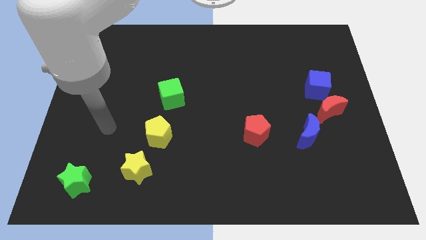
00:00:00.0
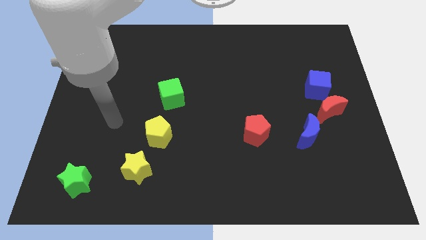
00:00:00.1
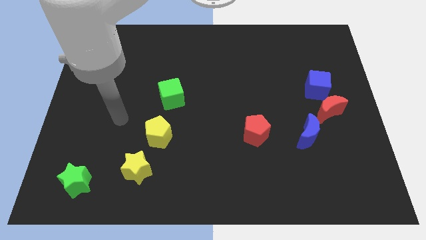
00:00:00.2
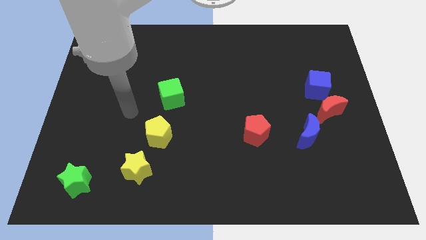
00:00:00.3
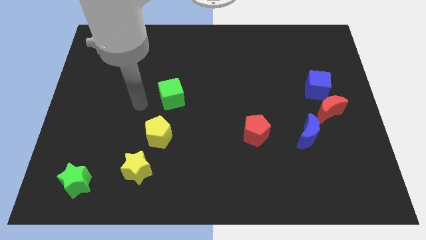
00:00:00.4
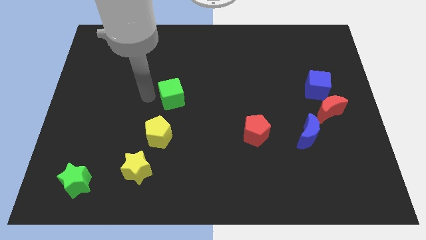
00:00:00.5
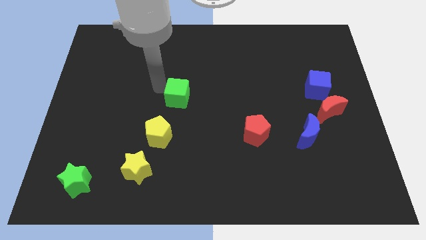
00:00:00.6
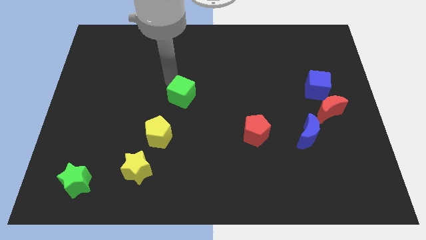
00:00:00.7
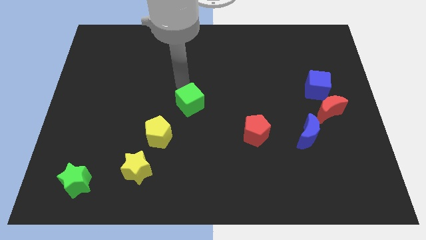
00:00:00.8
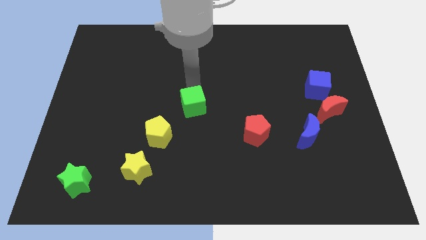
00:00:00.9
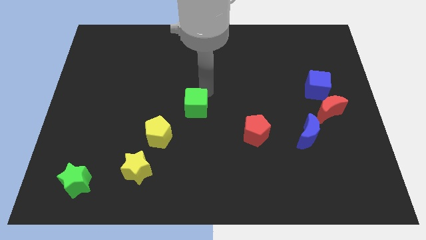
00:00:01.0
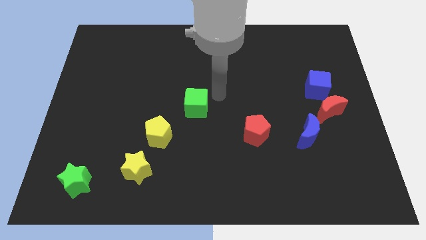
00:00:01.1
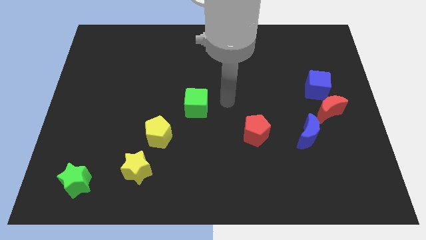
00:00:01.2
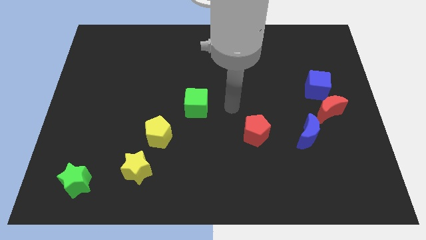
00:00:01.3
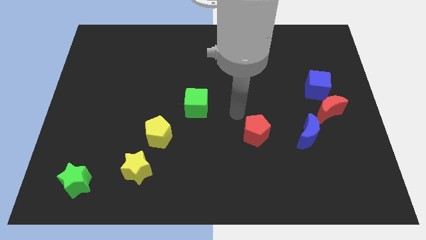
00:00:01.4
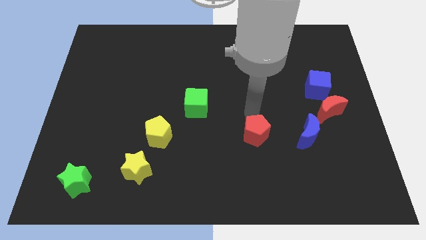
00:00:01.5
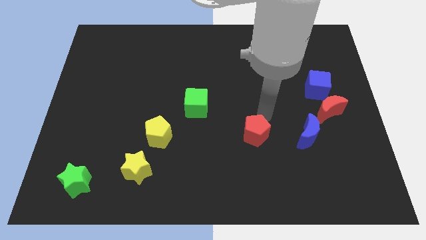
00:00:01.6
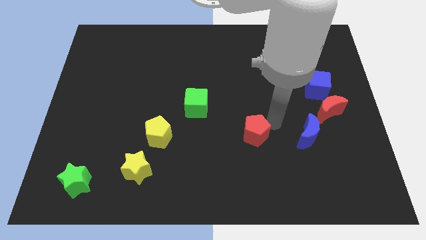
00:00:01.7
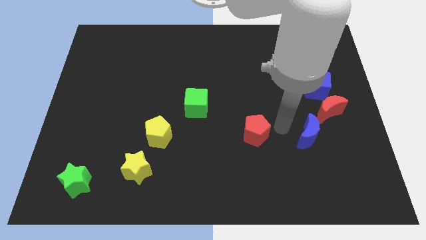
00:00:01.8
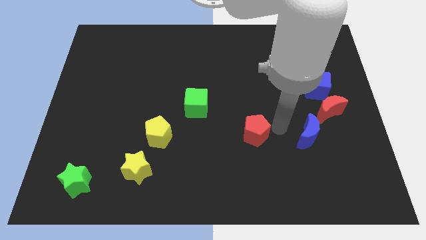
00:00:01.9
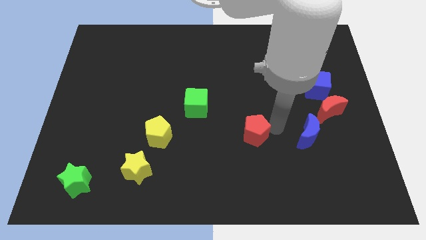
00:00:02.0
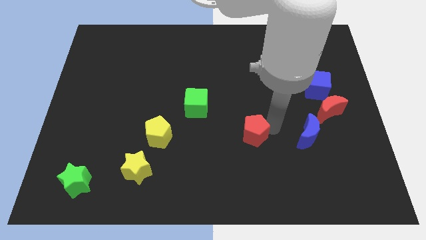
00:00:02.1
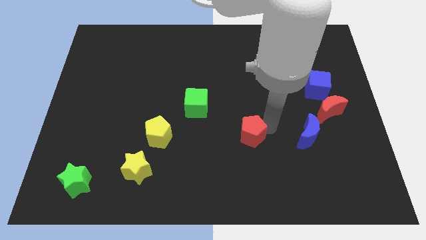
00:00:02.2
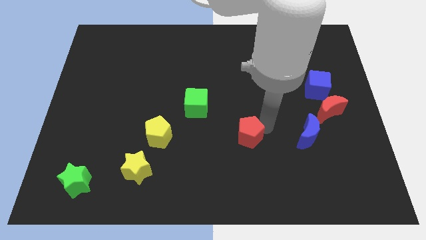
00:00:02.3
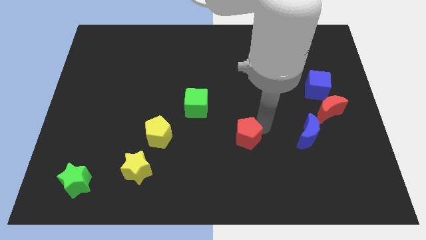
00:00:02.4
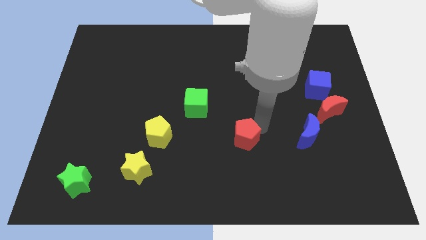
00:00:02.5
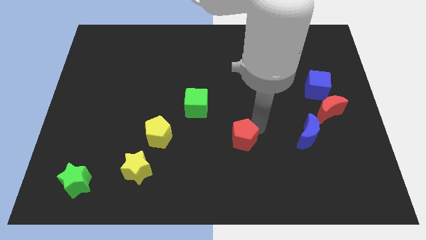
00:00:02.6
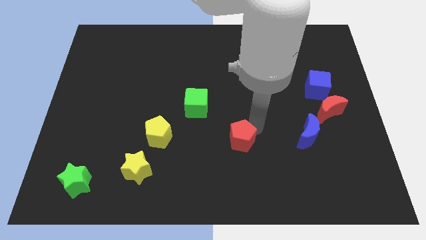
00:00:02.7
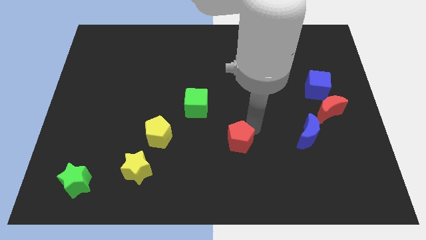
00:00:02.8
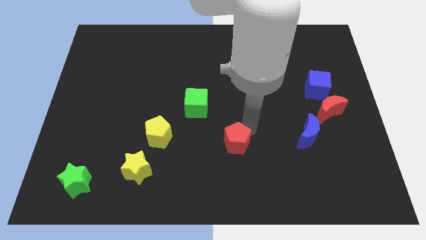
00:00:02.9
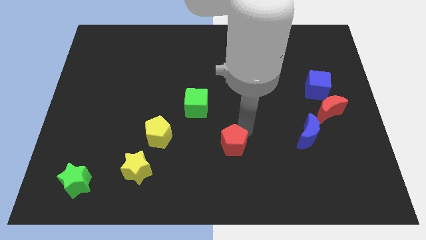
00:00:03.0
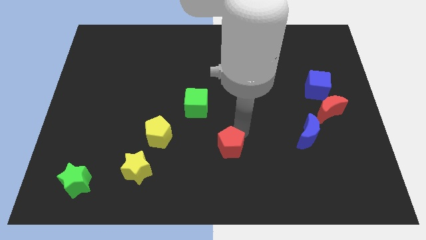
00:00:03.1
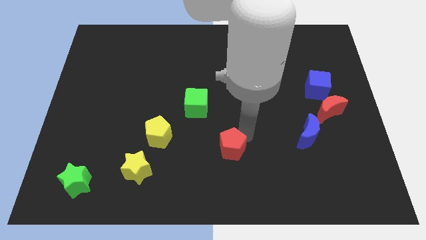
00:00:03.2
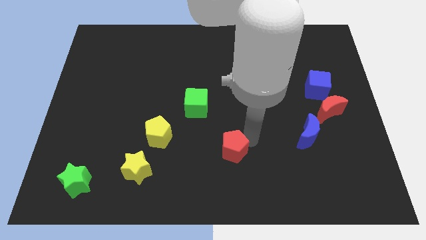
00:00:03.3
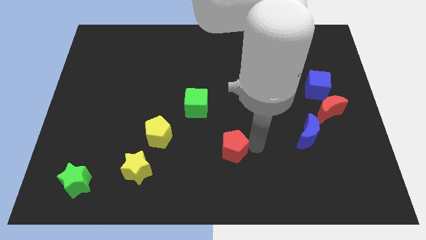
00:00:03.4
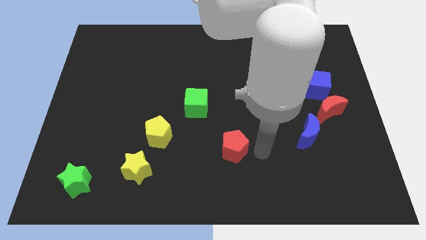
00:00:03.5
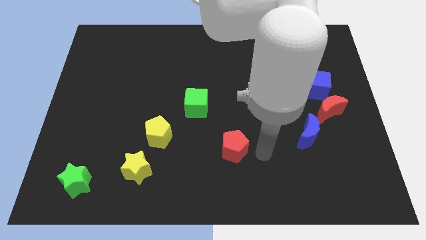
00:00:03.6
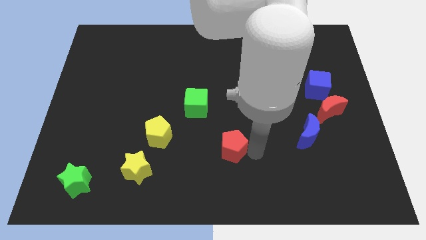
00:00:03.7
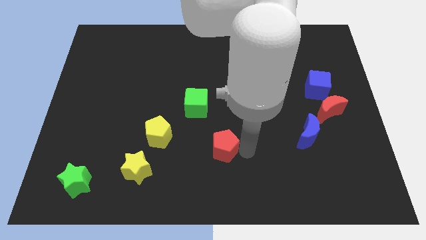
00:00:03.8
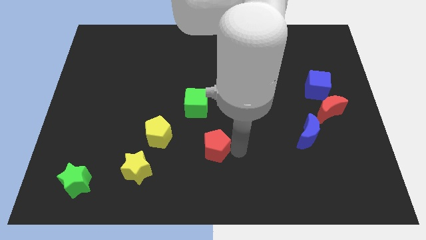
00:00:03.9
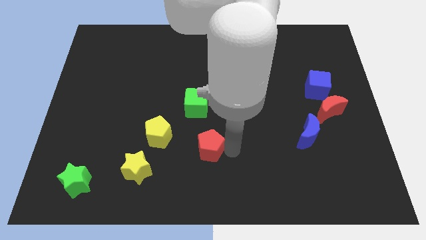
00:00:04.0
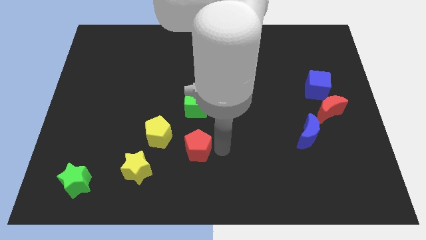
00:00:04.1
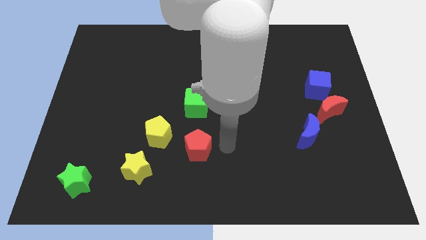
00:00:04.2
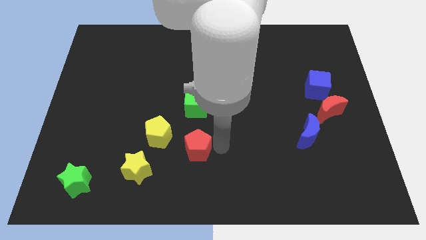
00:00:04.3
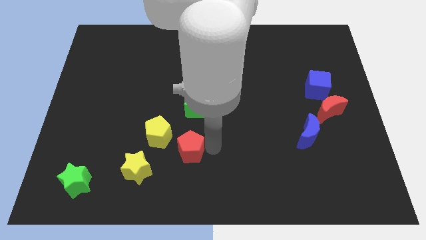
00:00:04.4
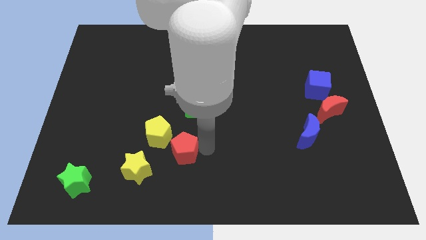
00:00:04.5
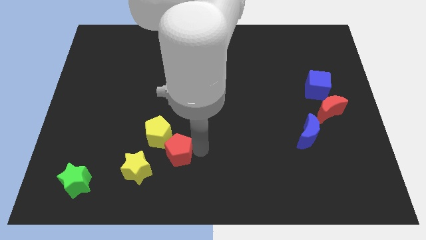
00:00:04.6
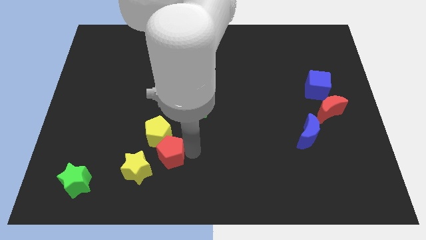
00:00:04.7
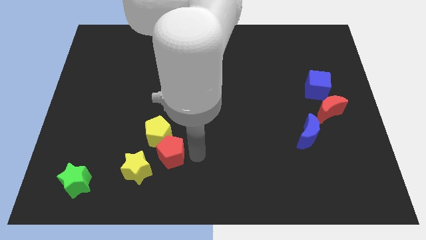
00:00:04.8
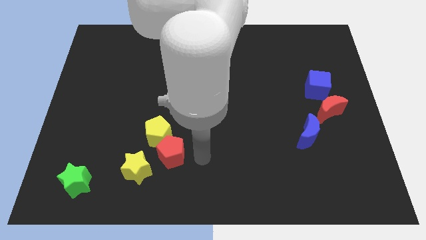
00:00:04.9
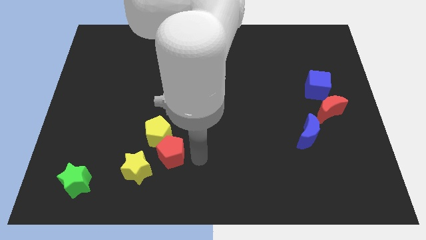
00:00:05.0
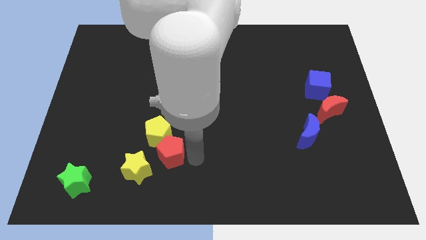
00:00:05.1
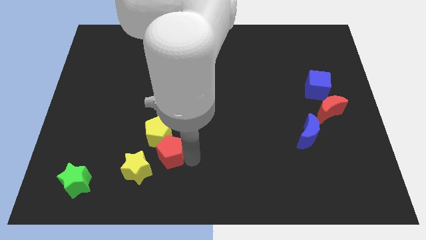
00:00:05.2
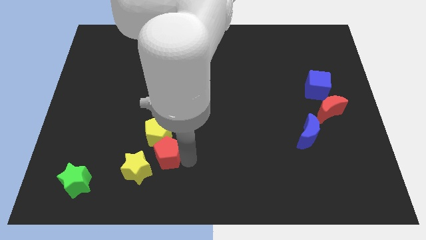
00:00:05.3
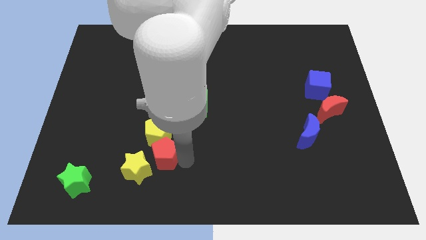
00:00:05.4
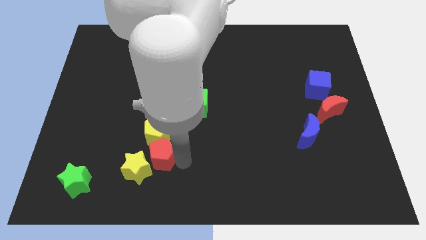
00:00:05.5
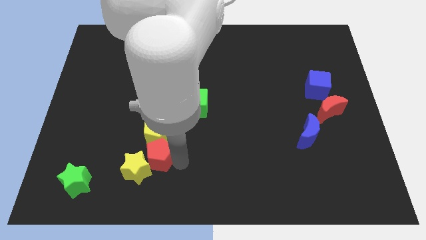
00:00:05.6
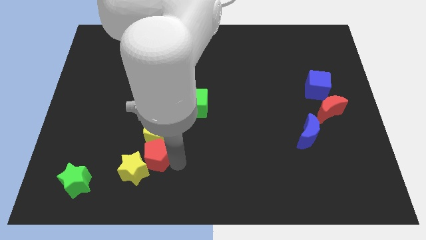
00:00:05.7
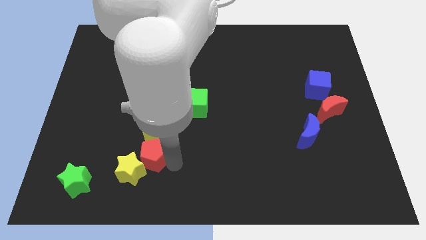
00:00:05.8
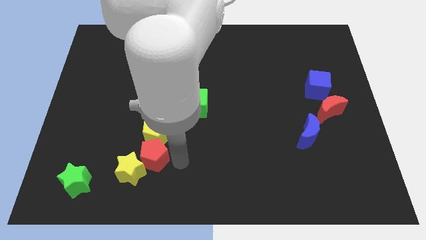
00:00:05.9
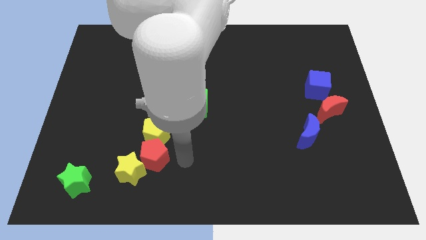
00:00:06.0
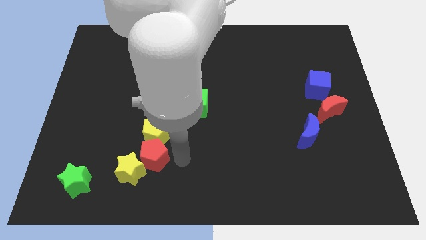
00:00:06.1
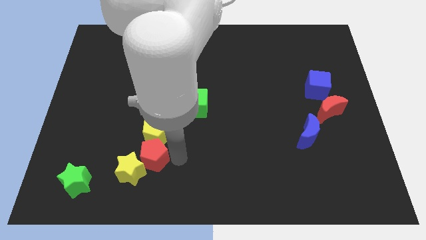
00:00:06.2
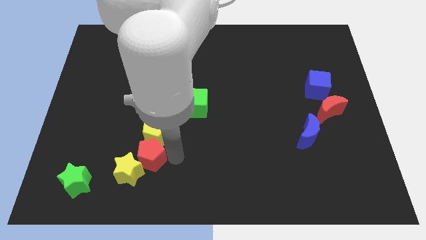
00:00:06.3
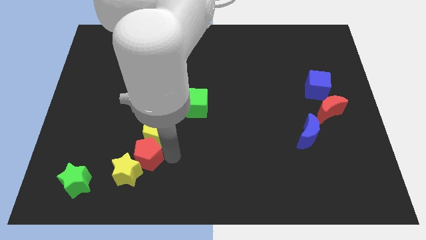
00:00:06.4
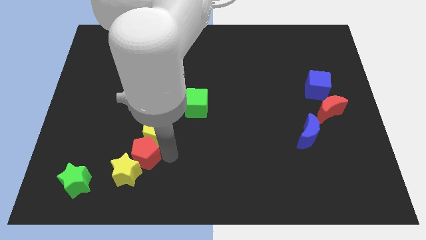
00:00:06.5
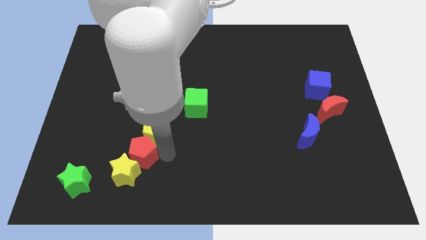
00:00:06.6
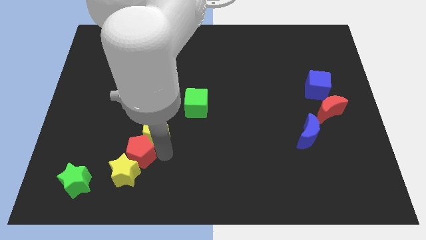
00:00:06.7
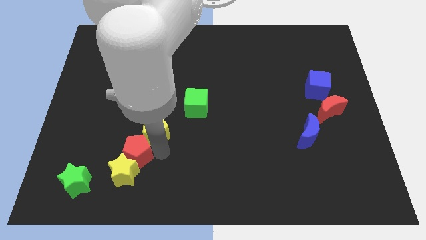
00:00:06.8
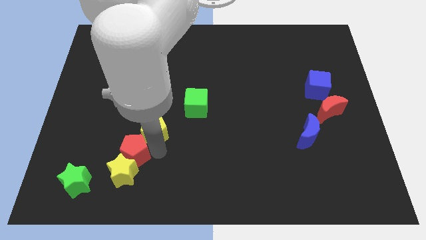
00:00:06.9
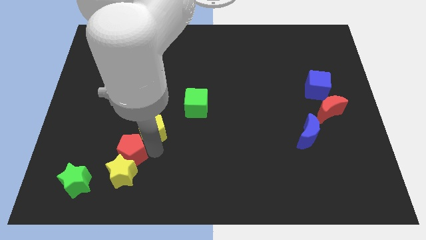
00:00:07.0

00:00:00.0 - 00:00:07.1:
put the red pentagon diagonally up and to the right of the green star

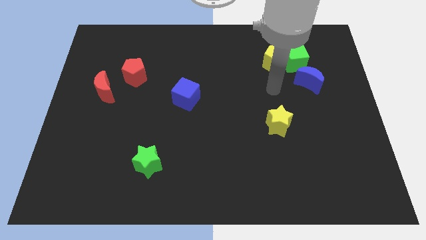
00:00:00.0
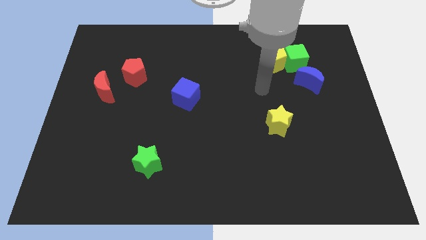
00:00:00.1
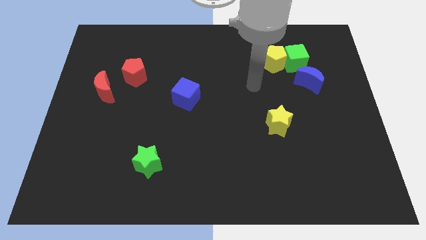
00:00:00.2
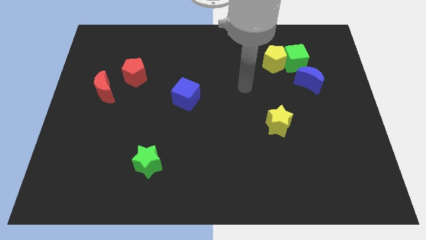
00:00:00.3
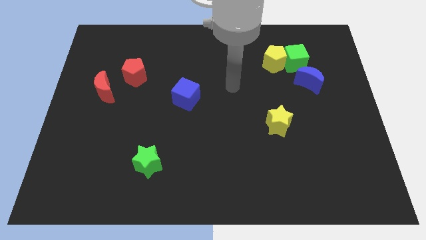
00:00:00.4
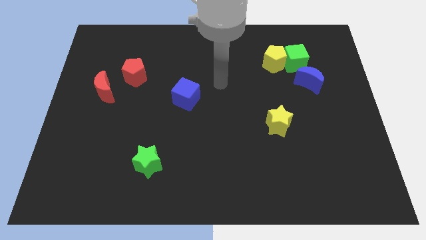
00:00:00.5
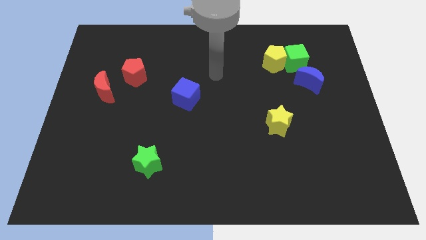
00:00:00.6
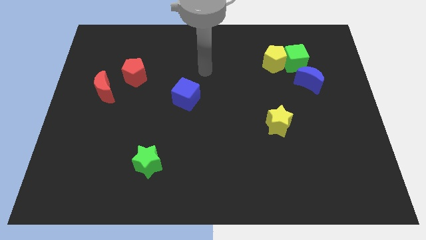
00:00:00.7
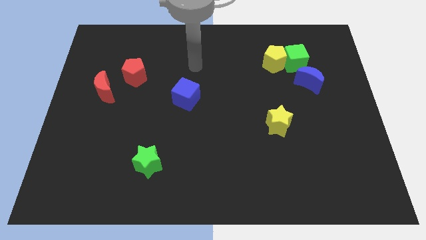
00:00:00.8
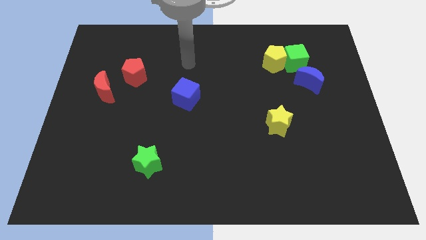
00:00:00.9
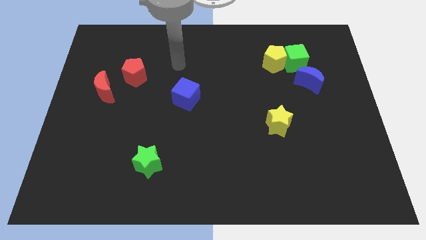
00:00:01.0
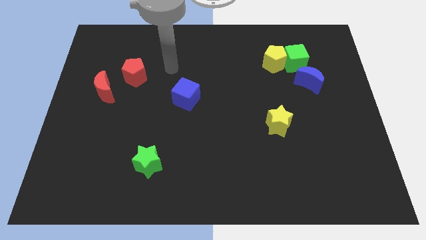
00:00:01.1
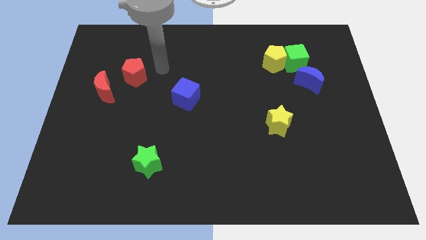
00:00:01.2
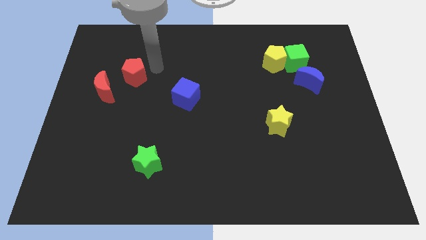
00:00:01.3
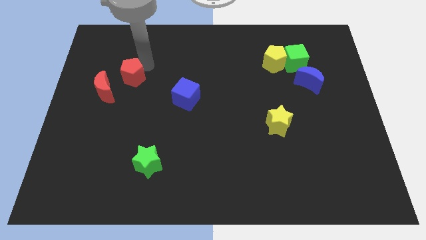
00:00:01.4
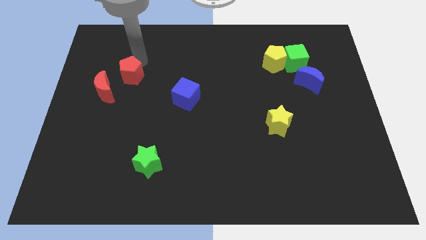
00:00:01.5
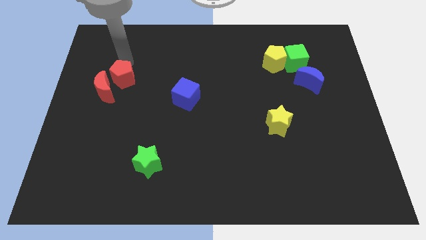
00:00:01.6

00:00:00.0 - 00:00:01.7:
slide the red moon below the red pentagon
